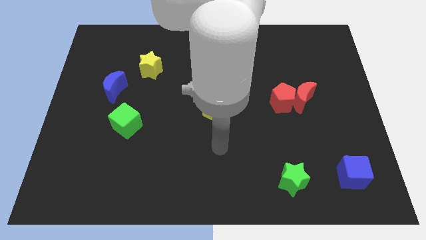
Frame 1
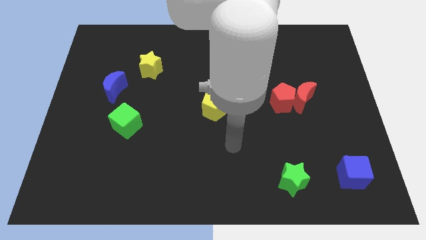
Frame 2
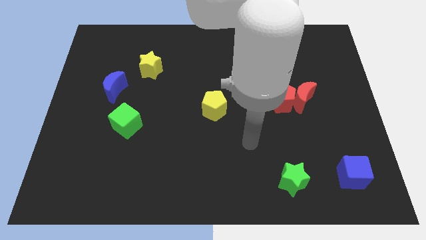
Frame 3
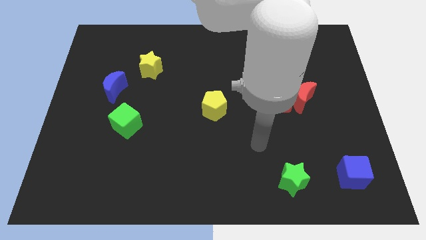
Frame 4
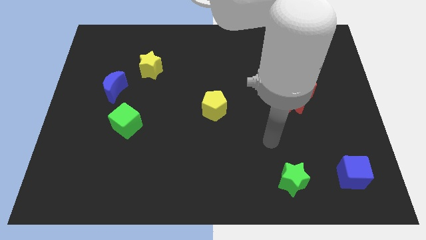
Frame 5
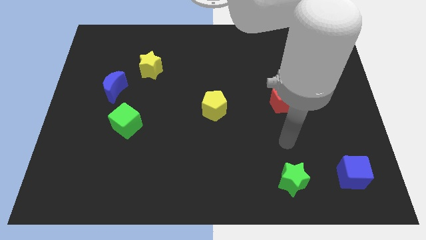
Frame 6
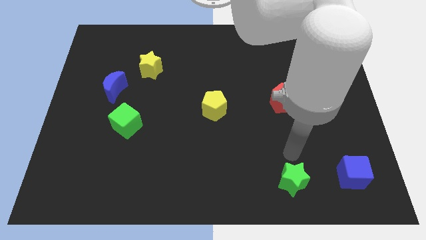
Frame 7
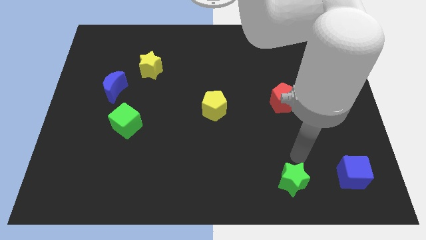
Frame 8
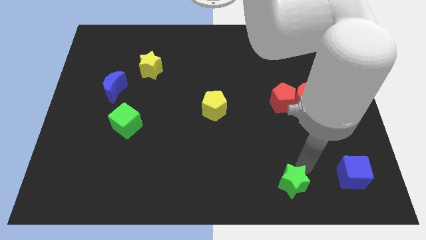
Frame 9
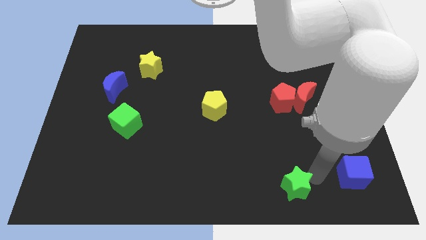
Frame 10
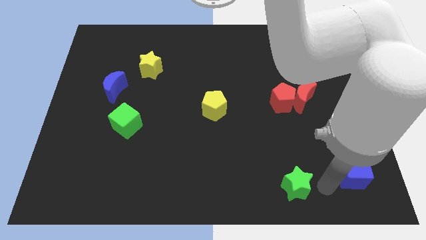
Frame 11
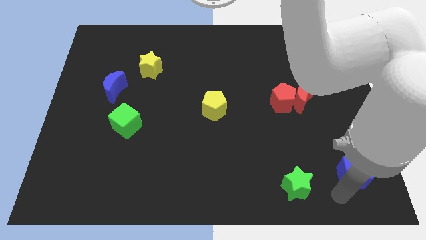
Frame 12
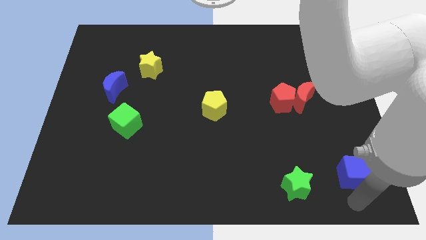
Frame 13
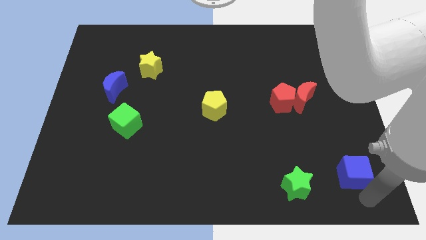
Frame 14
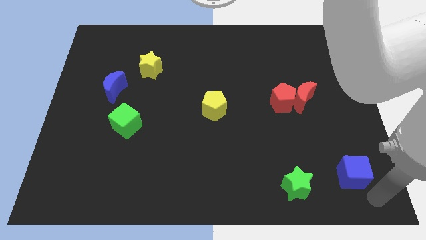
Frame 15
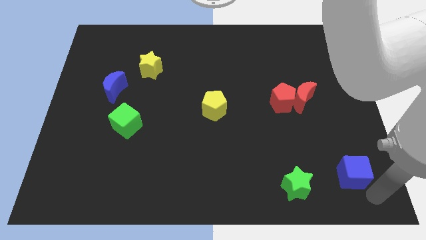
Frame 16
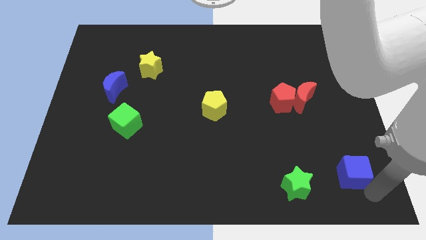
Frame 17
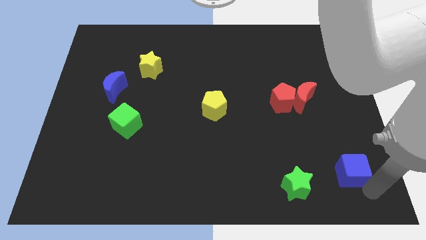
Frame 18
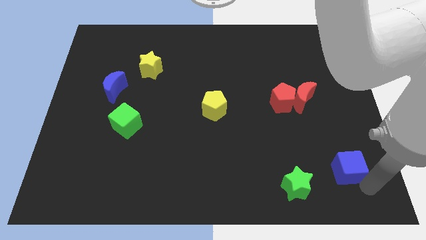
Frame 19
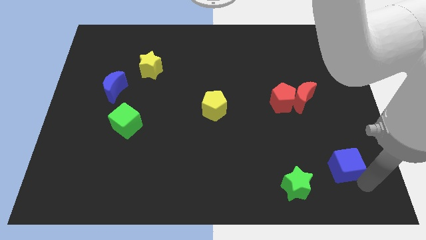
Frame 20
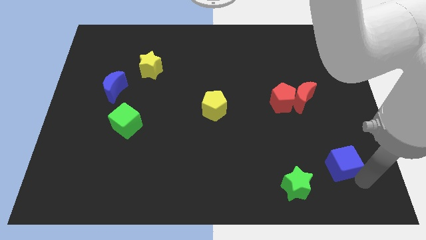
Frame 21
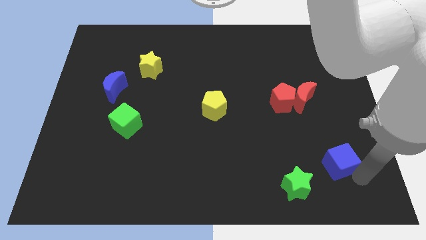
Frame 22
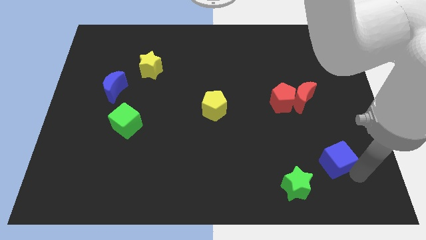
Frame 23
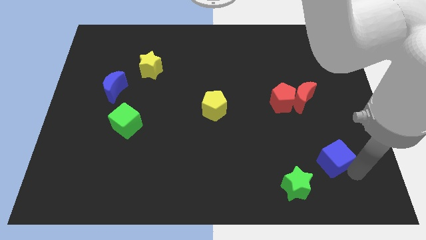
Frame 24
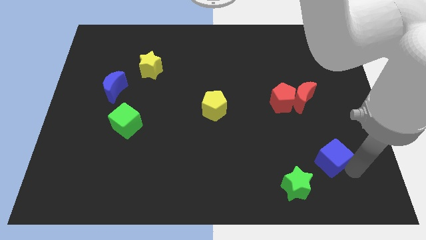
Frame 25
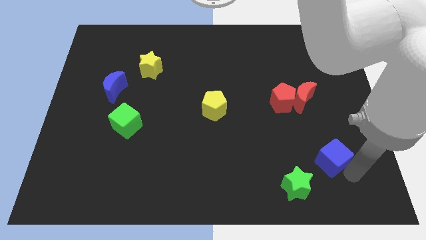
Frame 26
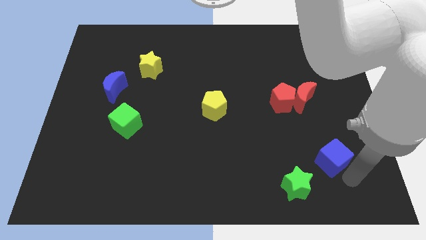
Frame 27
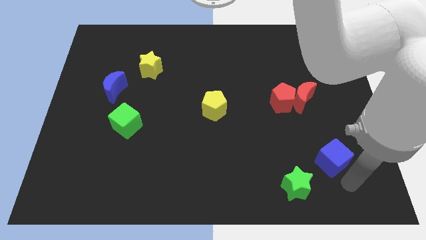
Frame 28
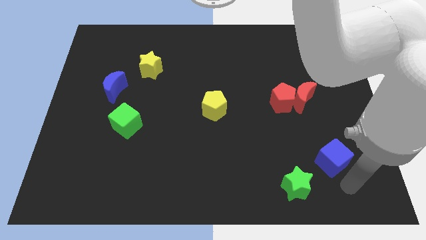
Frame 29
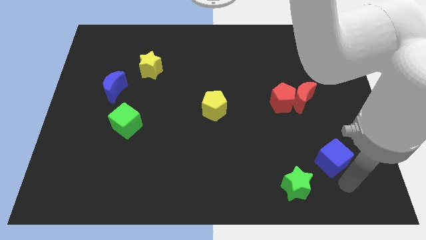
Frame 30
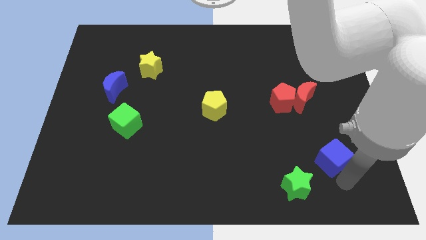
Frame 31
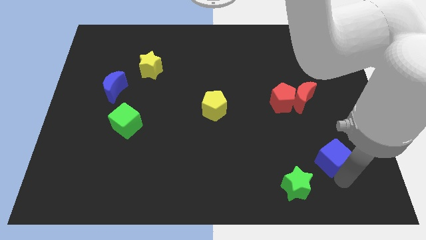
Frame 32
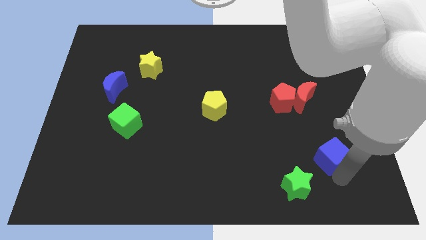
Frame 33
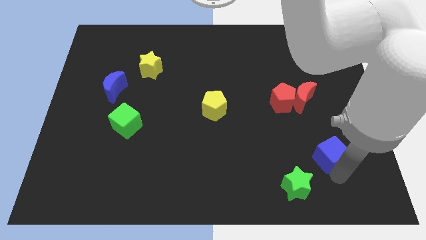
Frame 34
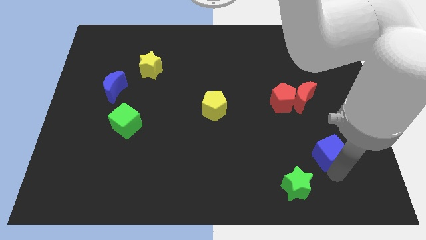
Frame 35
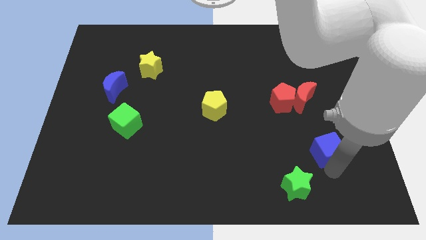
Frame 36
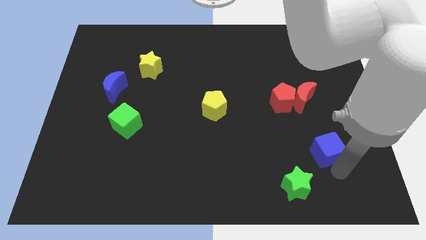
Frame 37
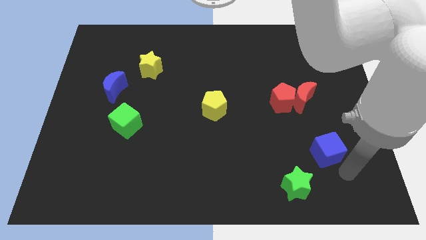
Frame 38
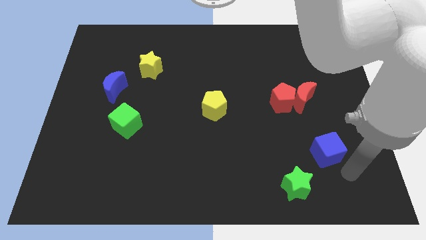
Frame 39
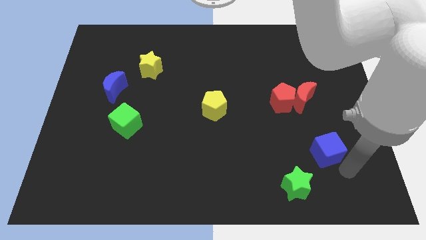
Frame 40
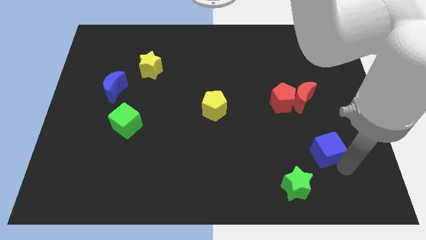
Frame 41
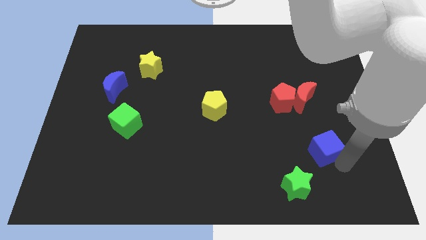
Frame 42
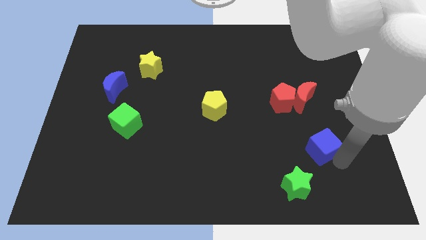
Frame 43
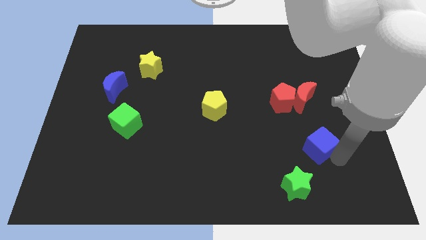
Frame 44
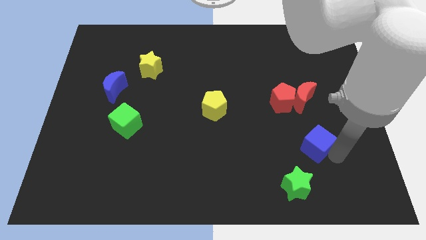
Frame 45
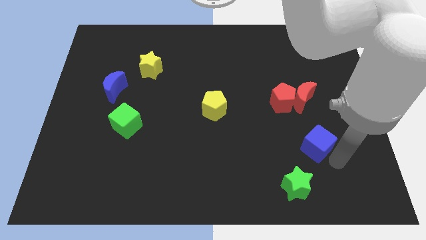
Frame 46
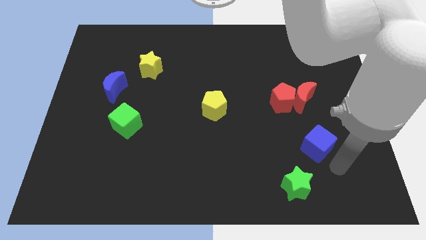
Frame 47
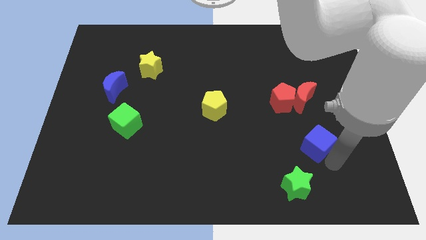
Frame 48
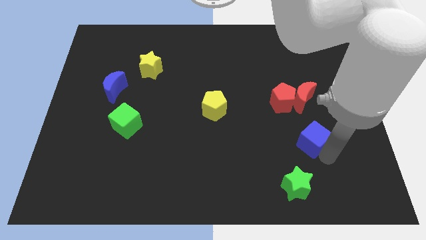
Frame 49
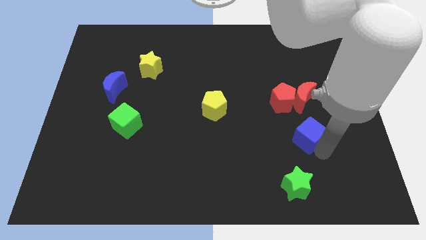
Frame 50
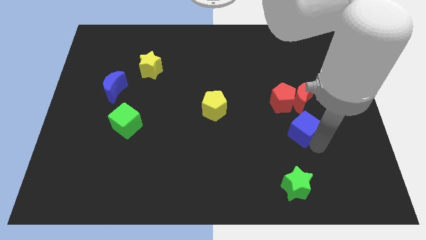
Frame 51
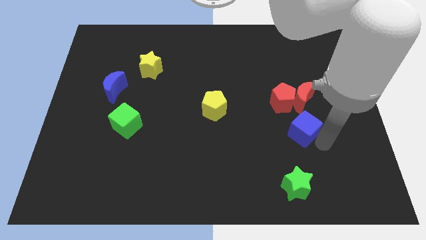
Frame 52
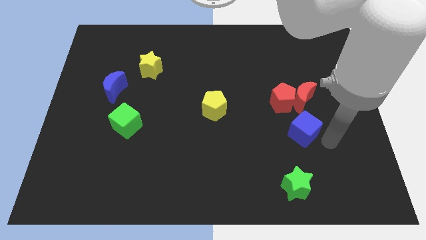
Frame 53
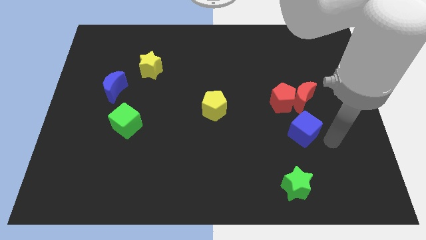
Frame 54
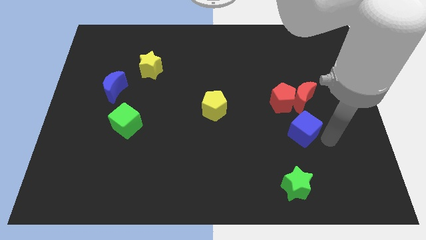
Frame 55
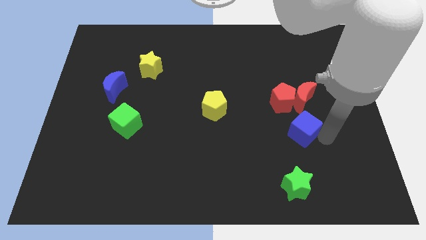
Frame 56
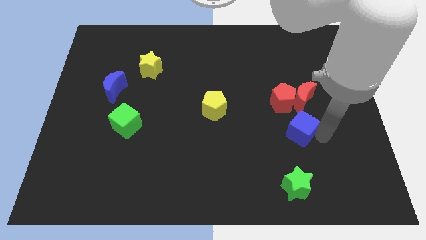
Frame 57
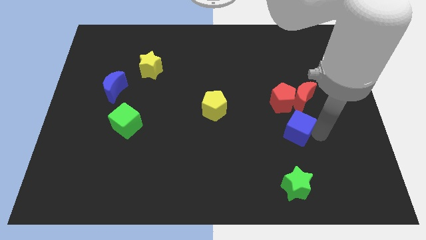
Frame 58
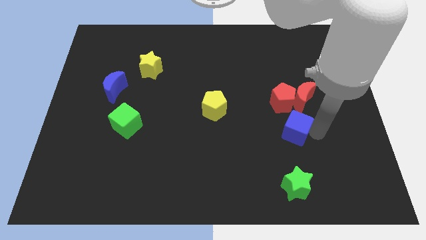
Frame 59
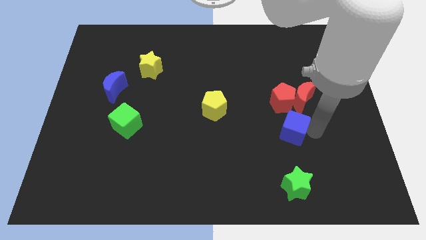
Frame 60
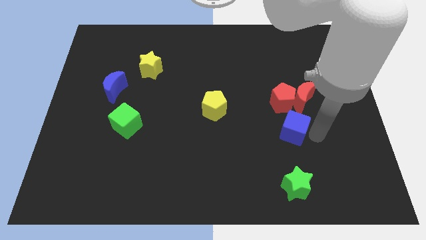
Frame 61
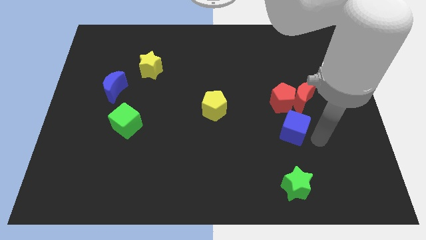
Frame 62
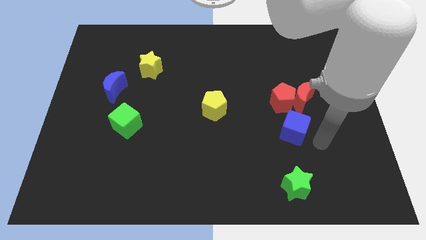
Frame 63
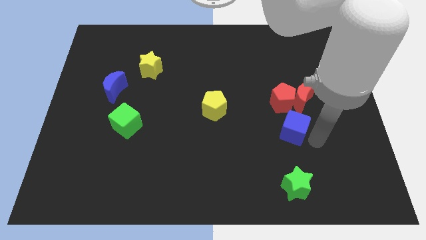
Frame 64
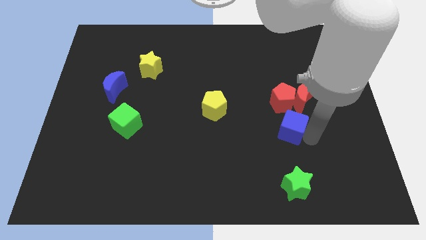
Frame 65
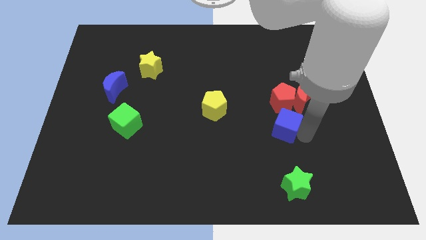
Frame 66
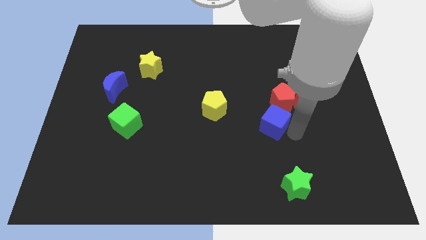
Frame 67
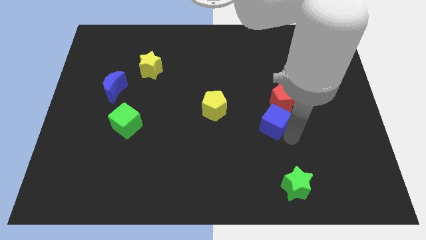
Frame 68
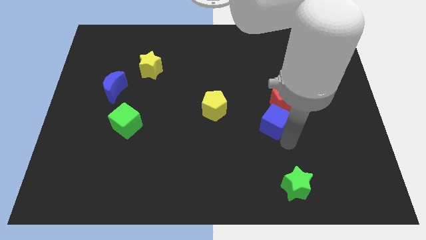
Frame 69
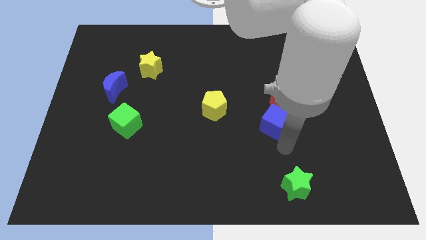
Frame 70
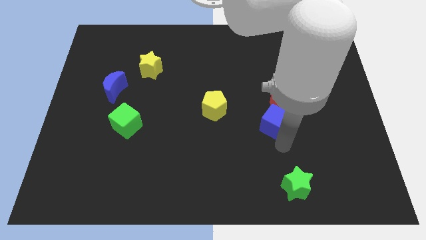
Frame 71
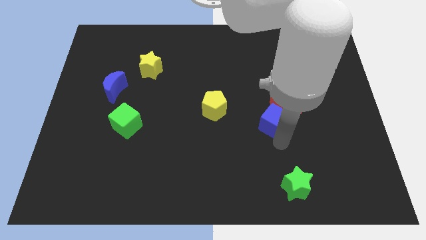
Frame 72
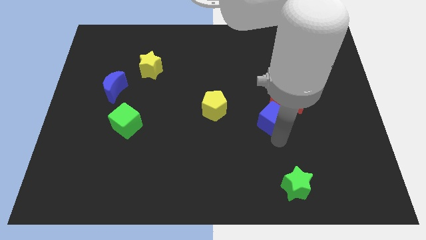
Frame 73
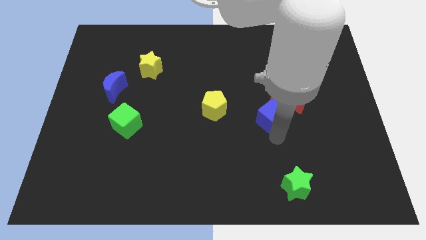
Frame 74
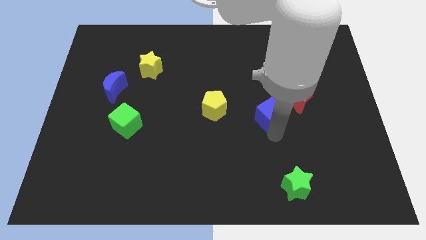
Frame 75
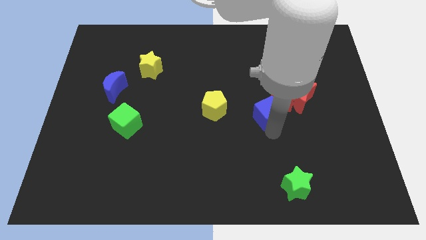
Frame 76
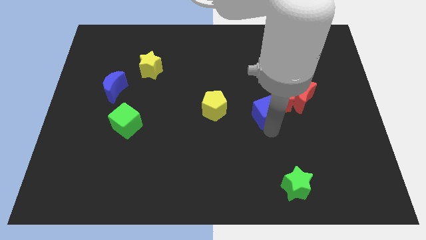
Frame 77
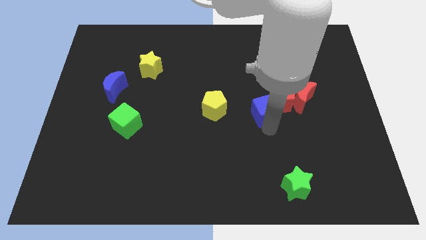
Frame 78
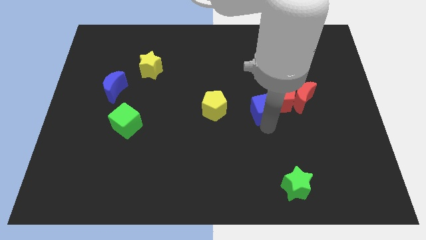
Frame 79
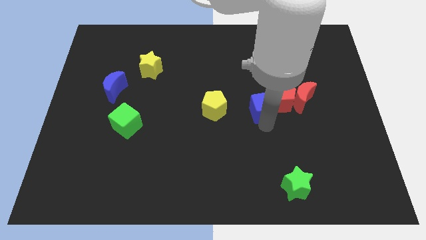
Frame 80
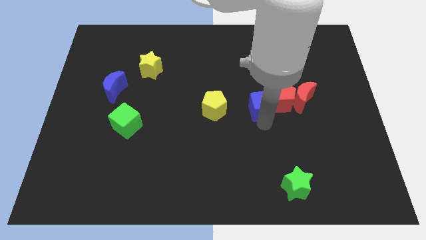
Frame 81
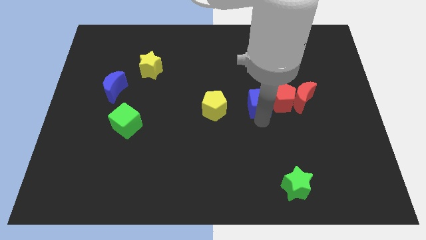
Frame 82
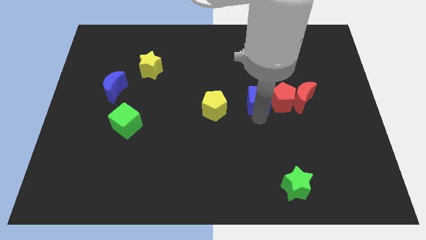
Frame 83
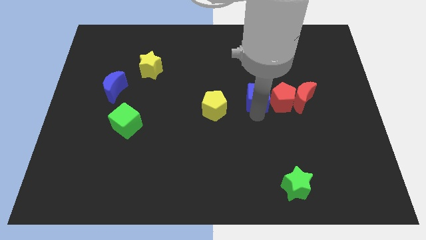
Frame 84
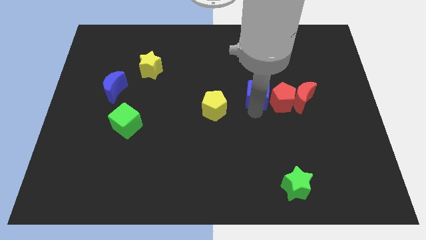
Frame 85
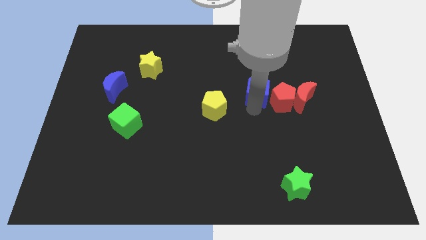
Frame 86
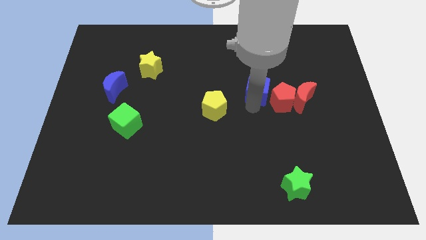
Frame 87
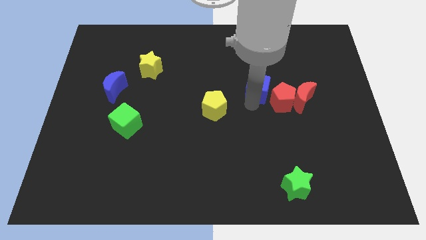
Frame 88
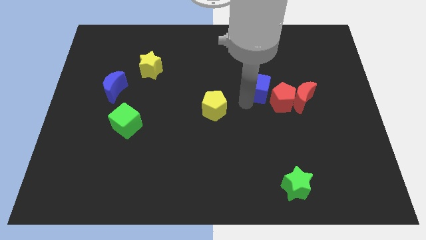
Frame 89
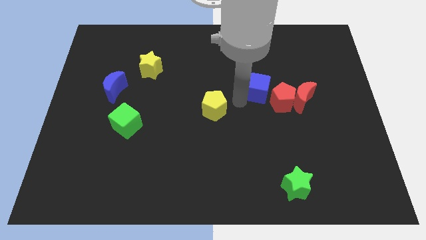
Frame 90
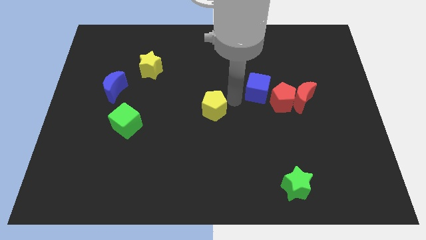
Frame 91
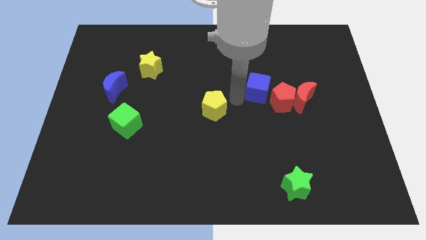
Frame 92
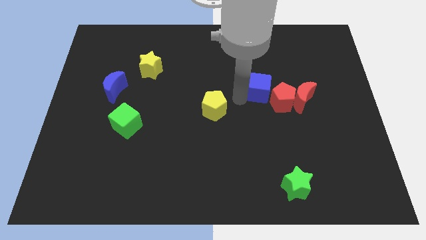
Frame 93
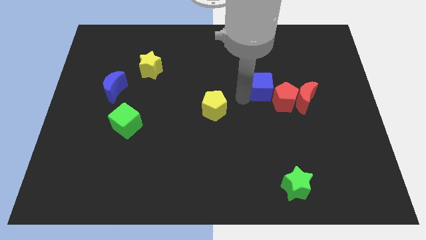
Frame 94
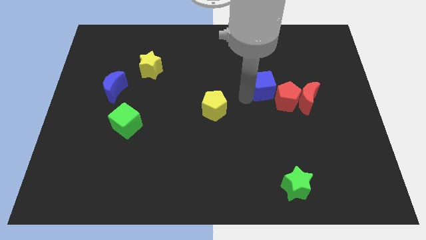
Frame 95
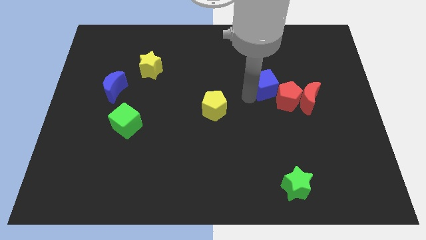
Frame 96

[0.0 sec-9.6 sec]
put the blue cube to the top left side of the red moon
